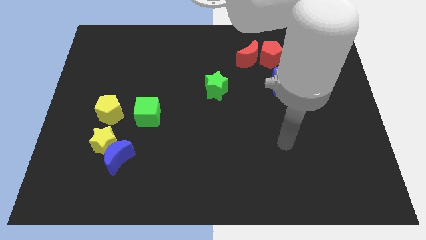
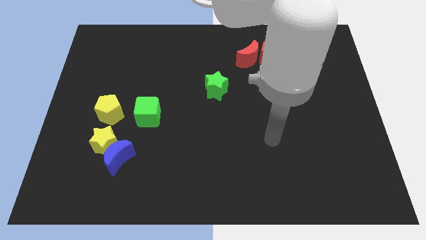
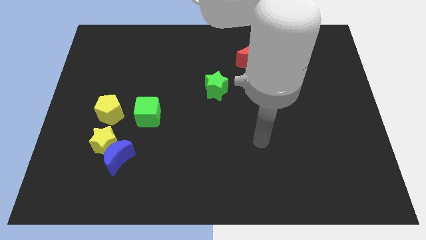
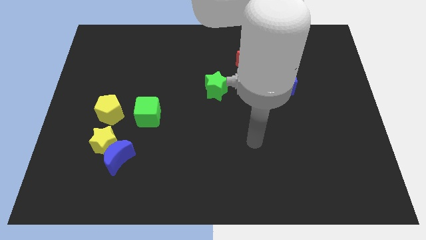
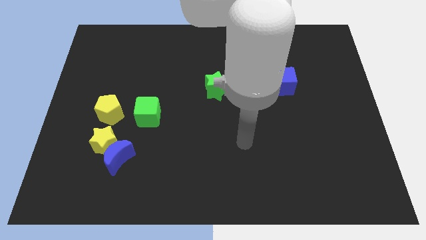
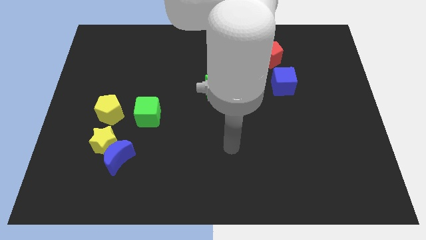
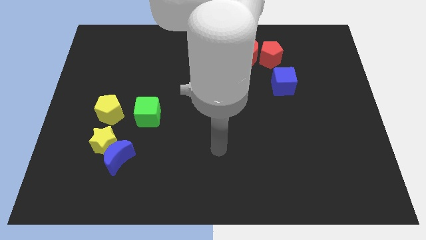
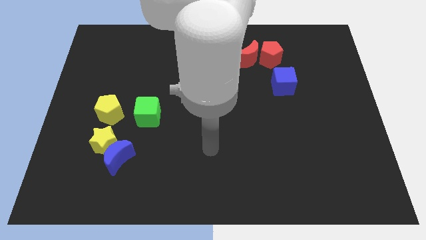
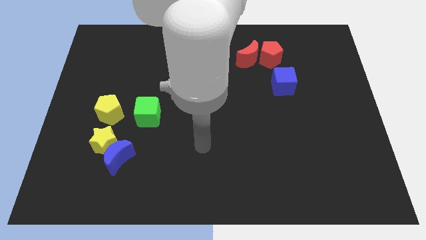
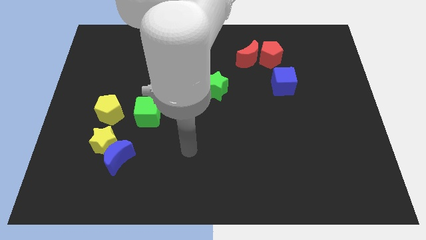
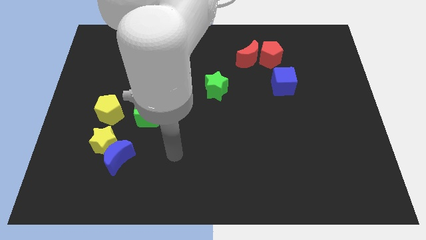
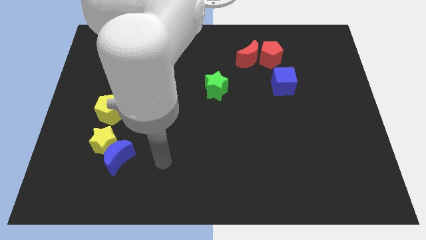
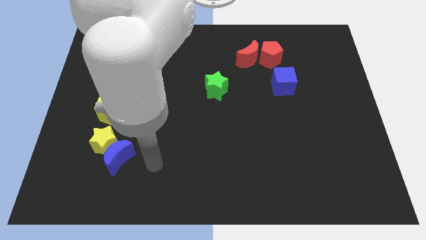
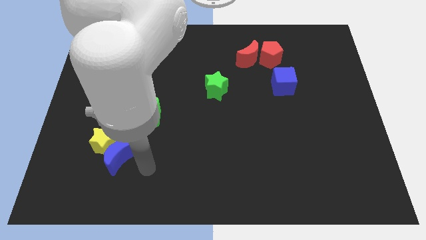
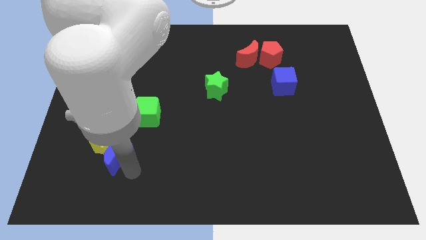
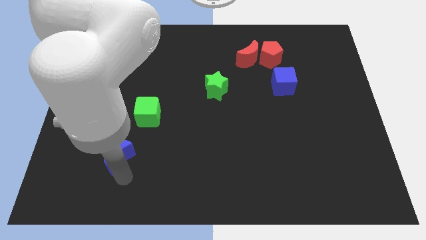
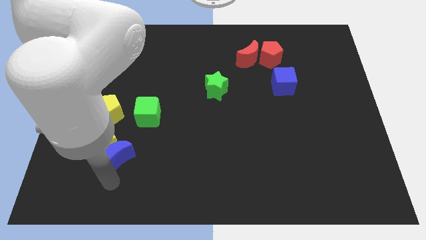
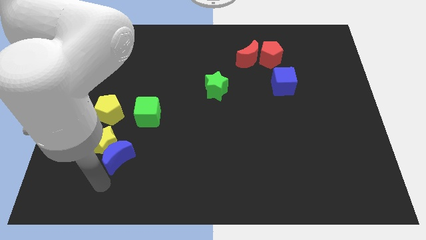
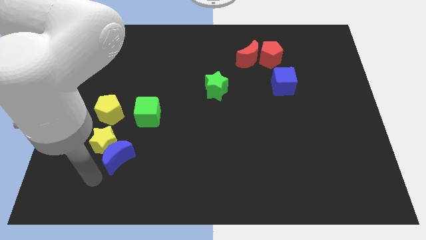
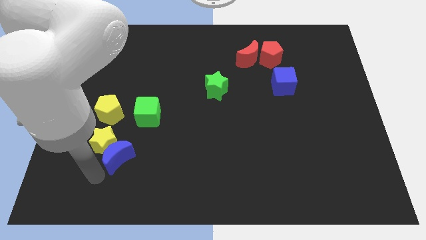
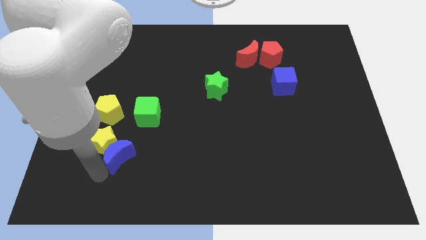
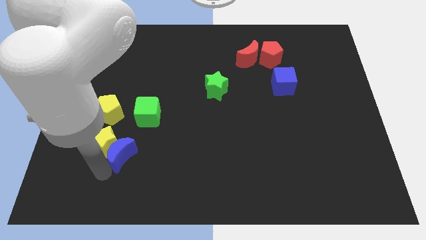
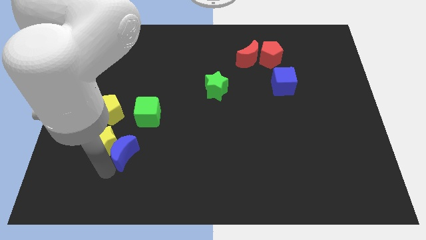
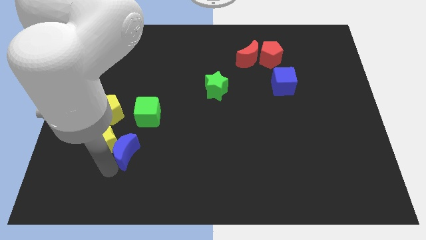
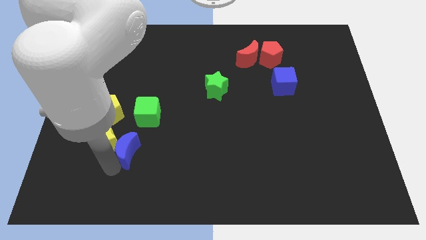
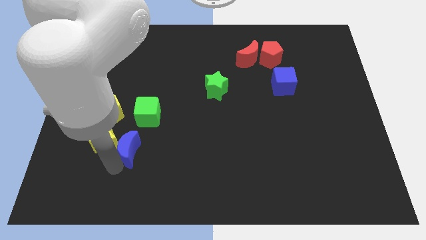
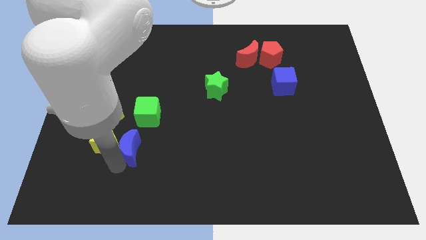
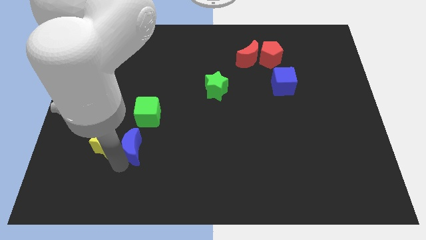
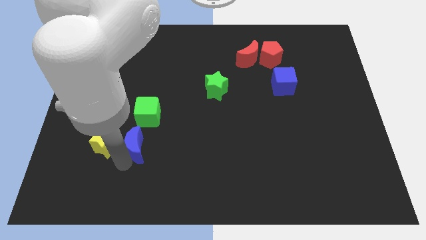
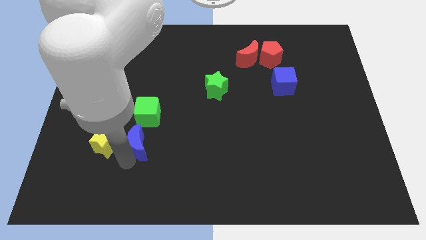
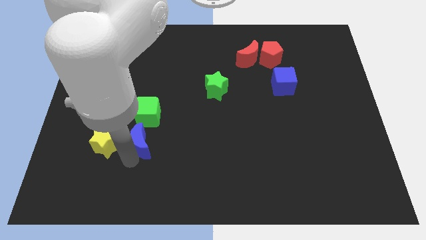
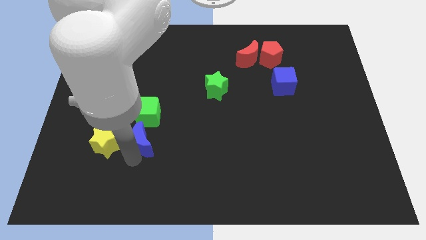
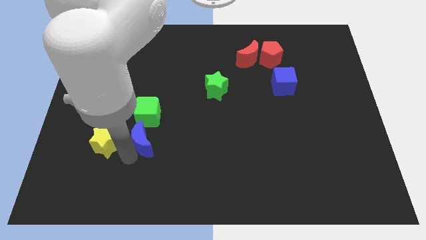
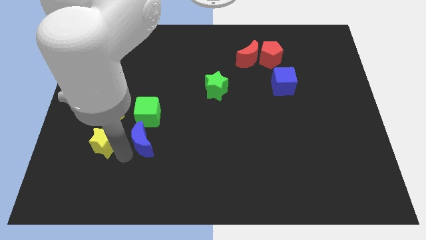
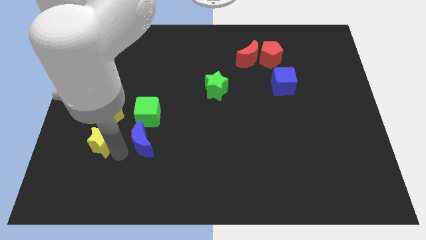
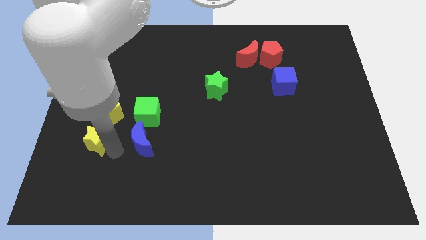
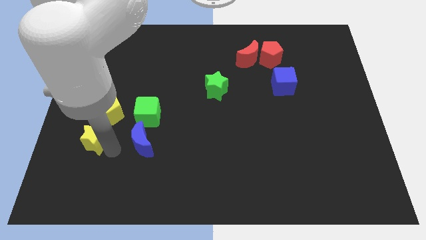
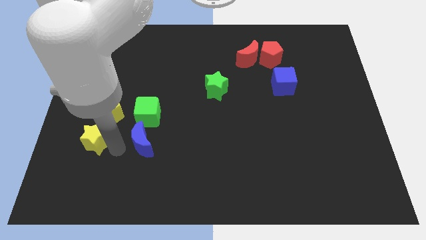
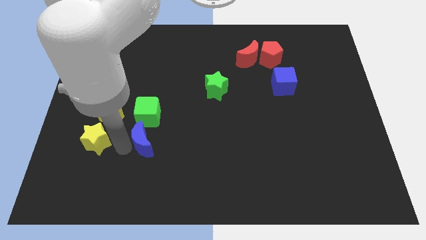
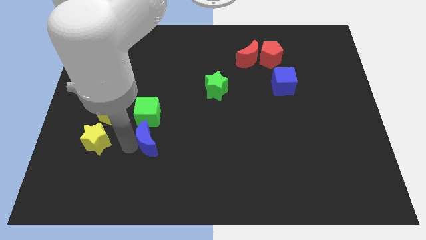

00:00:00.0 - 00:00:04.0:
move the blue moon upwards and to the right diagonally somewhat

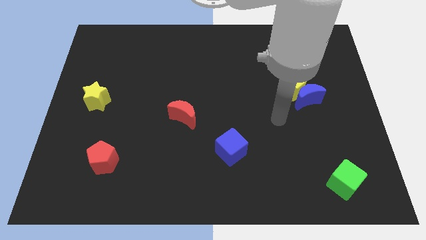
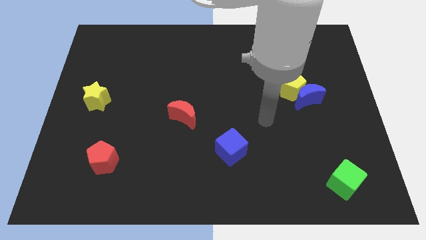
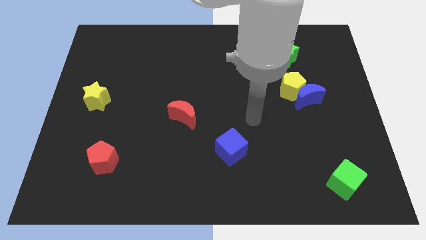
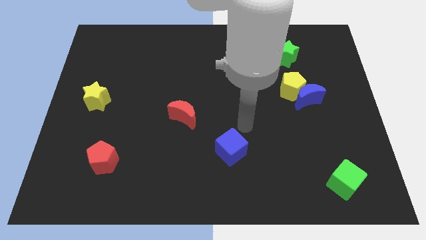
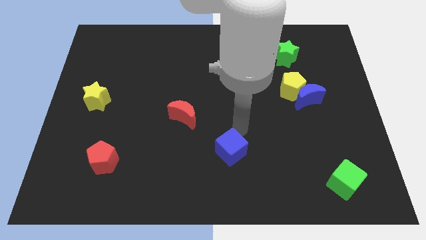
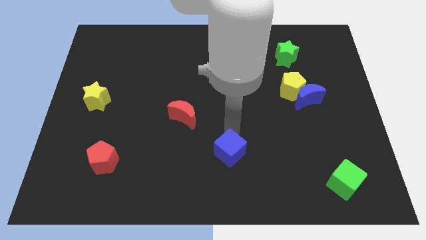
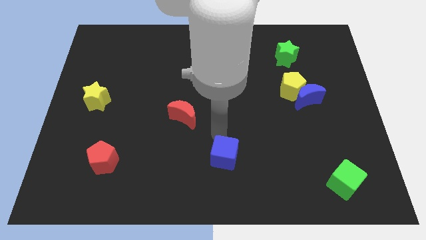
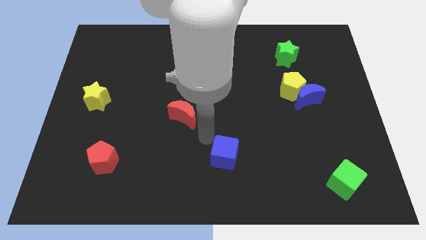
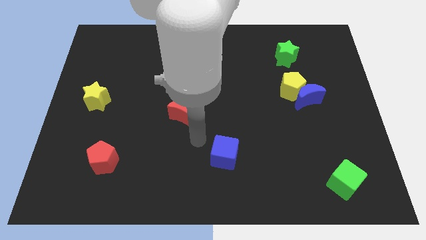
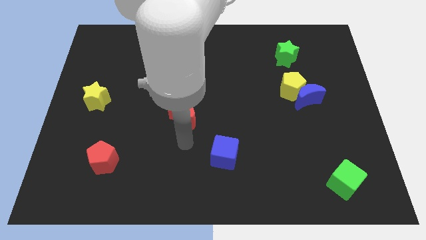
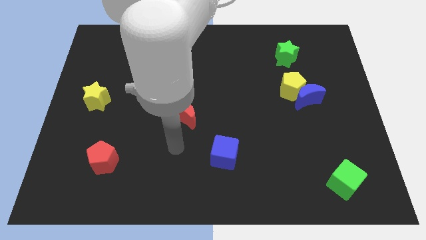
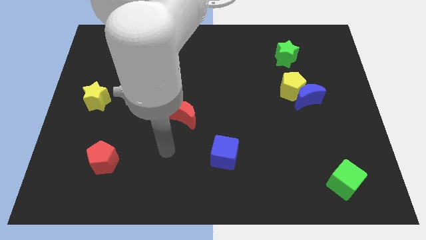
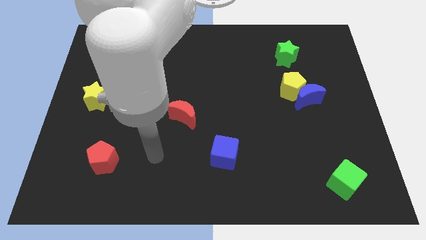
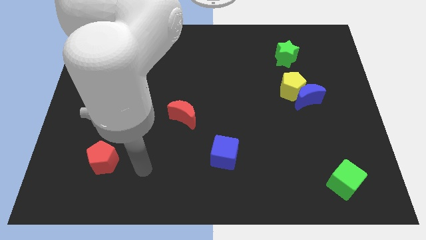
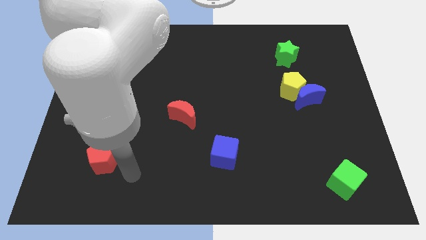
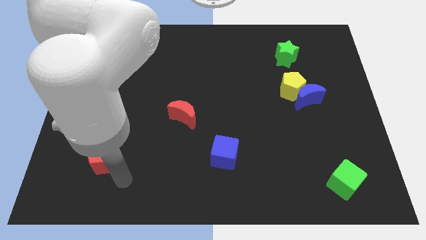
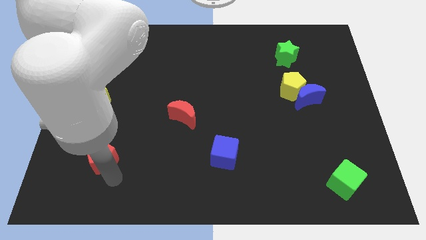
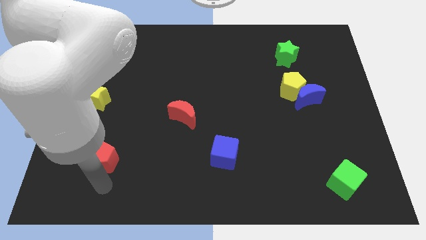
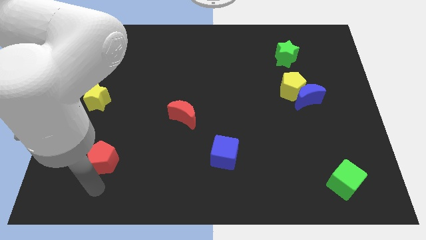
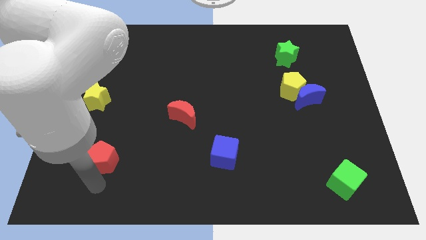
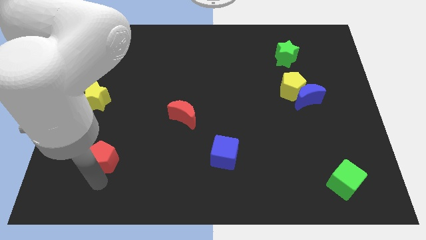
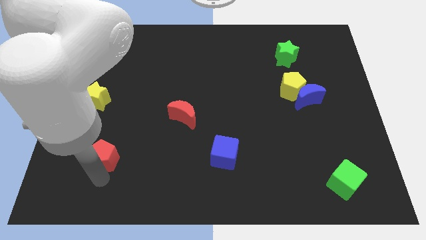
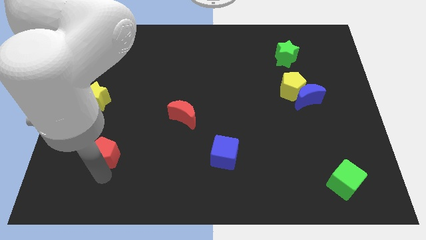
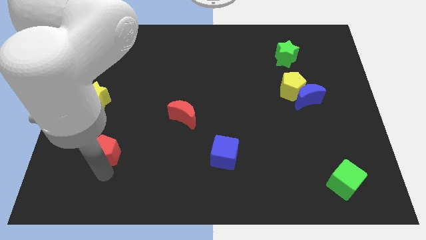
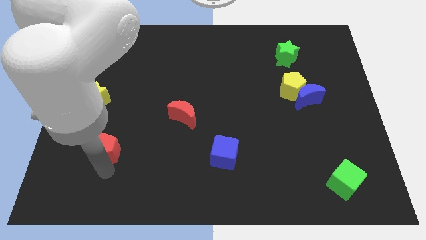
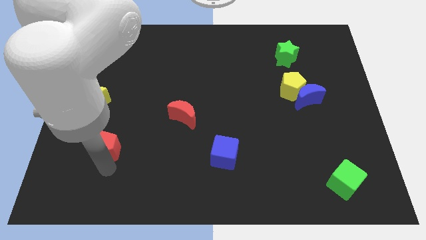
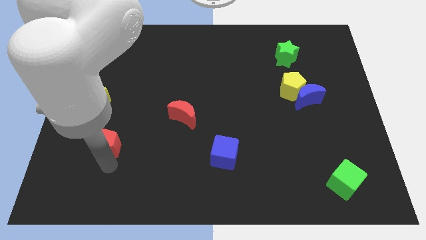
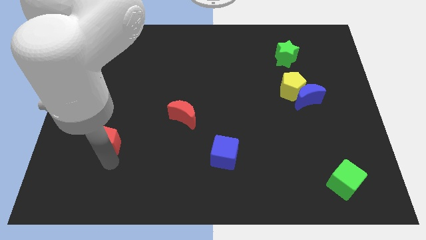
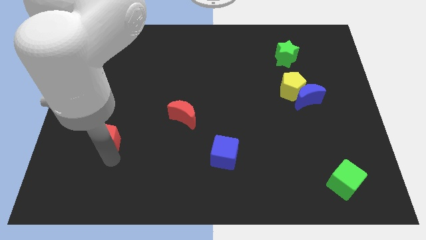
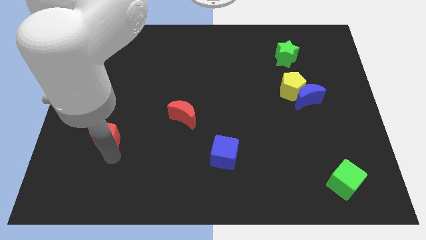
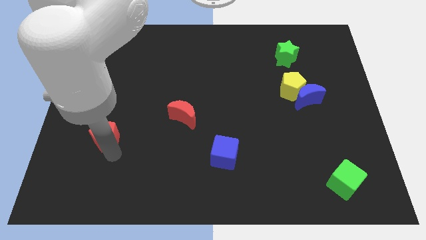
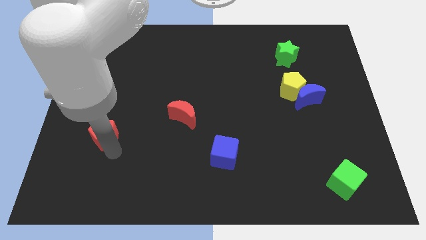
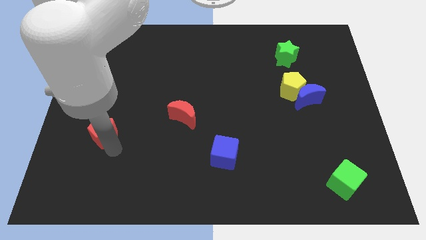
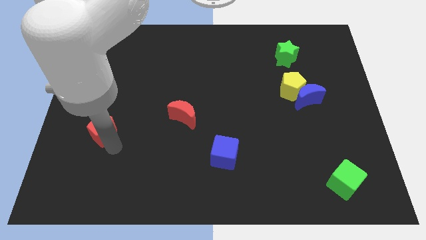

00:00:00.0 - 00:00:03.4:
push the red pentagon upwards a little bit

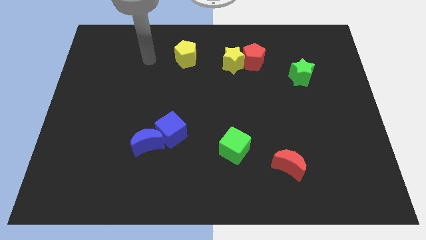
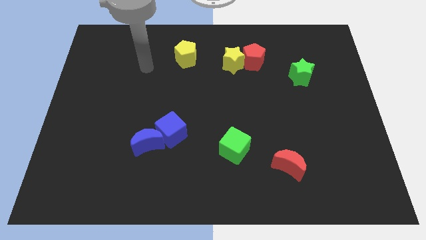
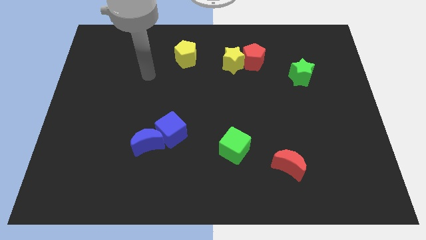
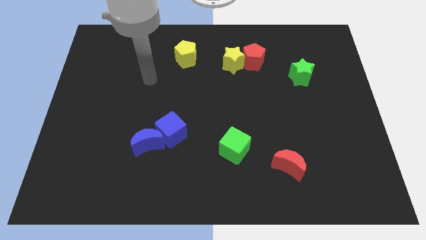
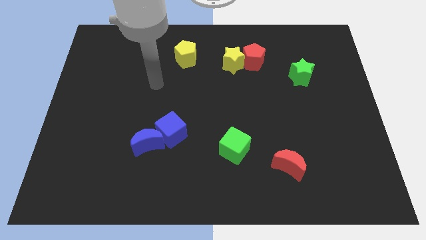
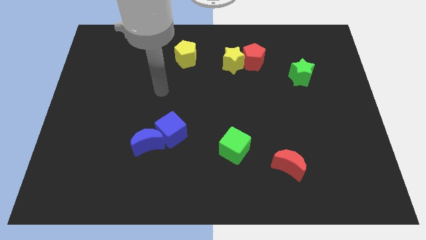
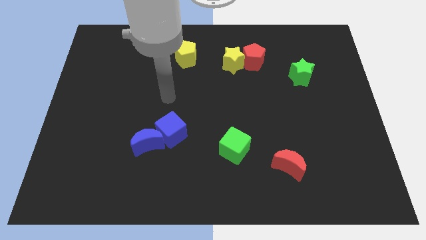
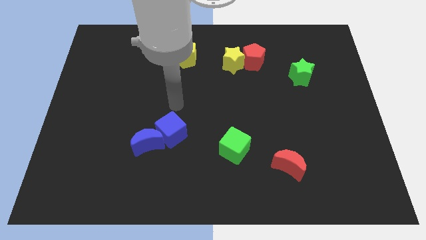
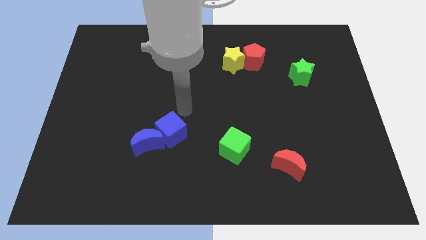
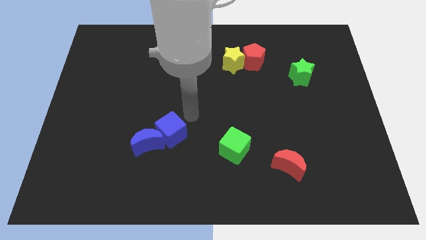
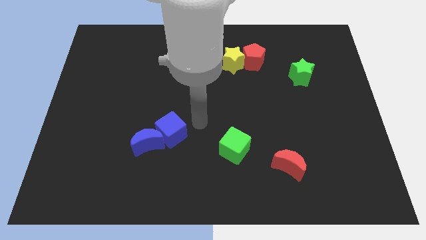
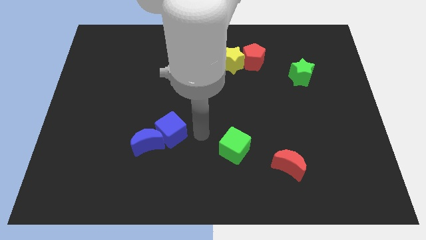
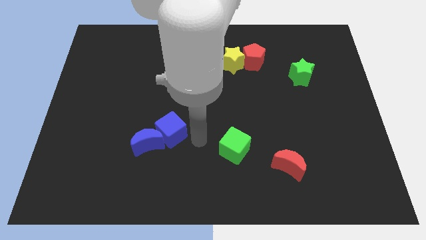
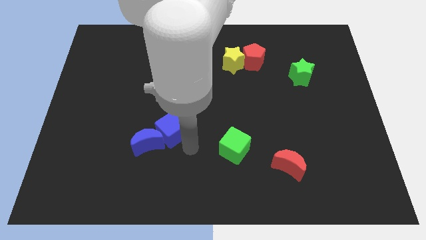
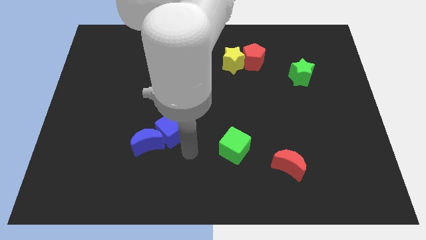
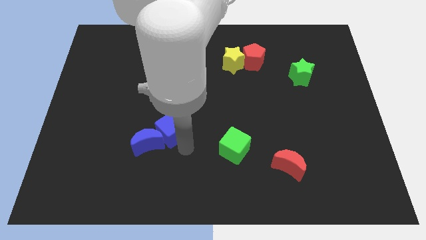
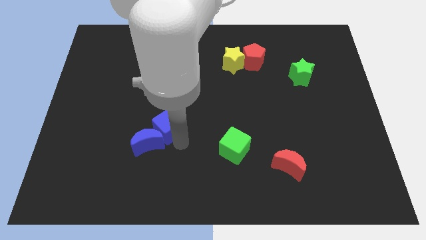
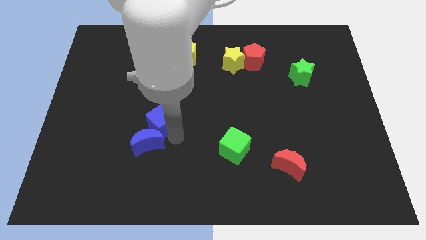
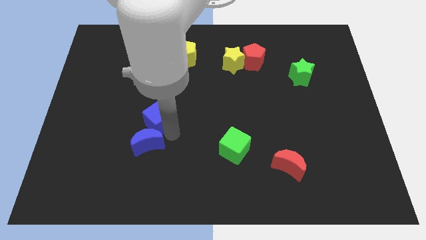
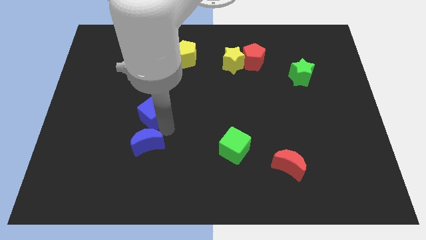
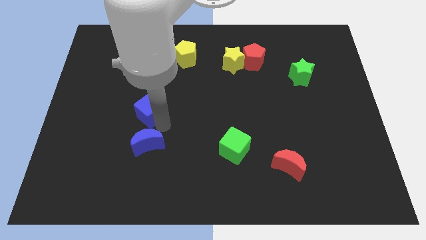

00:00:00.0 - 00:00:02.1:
slightly slide the blue cube diagonally up and left
